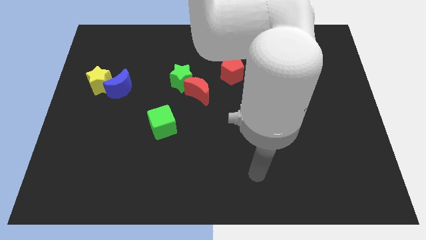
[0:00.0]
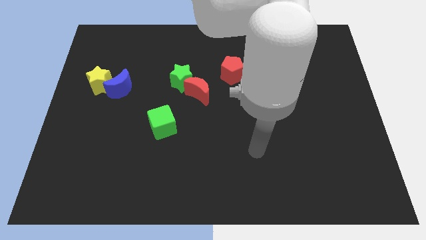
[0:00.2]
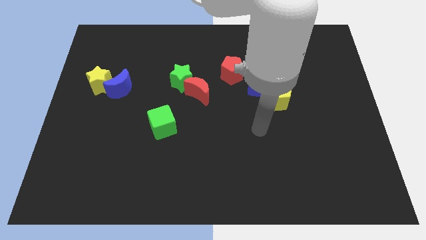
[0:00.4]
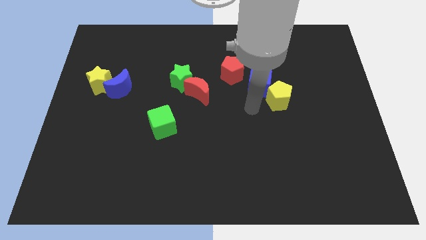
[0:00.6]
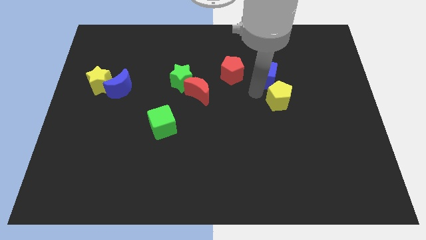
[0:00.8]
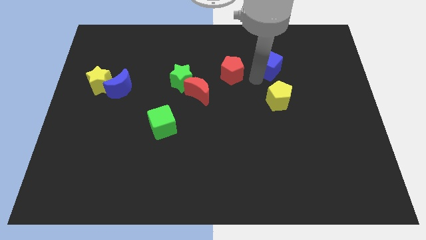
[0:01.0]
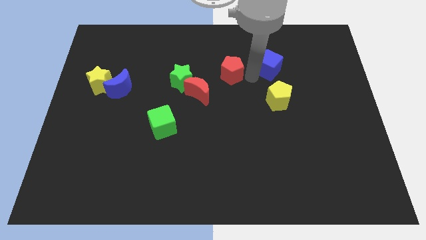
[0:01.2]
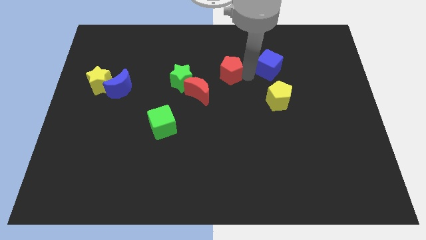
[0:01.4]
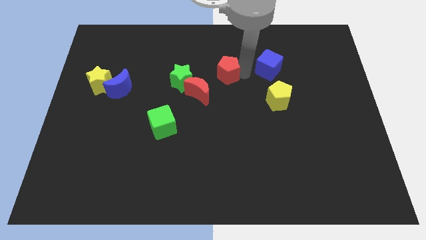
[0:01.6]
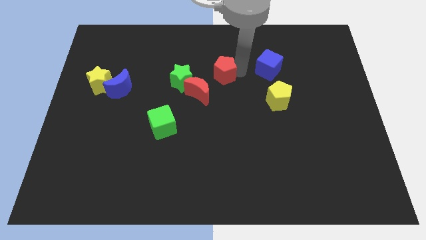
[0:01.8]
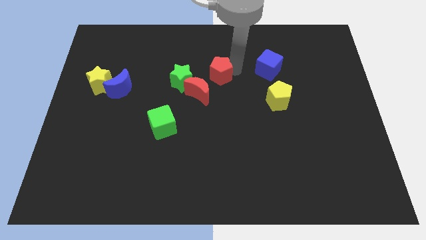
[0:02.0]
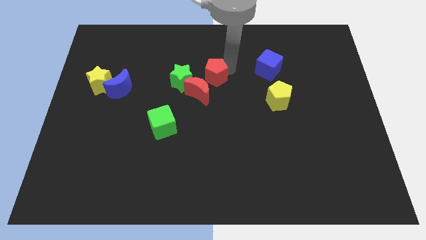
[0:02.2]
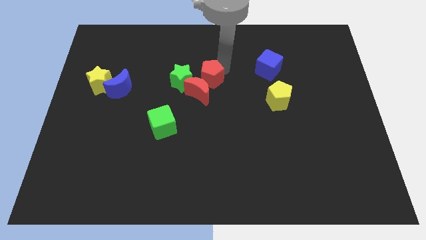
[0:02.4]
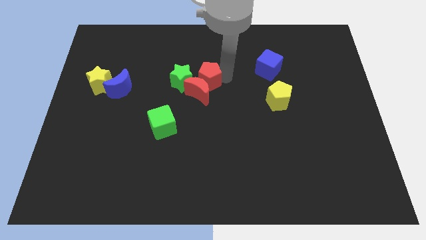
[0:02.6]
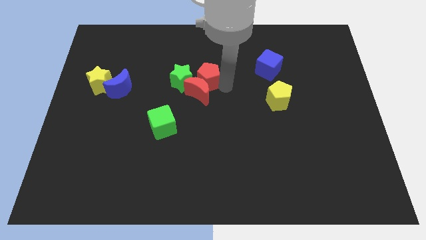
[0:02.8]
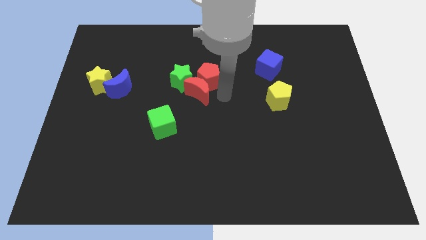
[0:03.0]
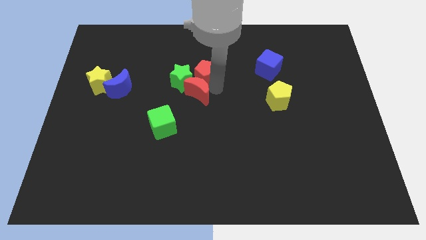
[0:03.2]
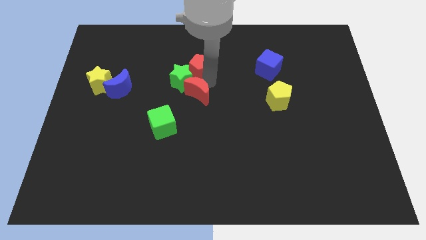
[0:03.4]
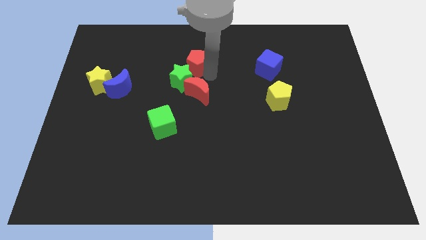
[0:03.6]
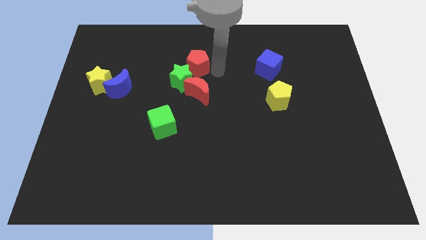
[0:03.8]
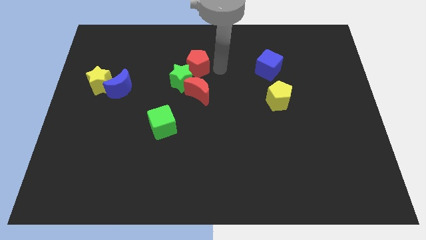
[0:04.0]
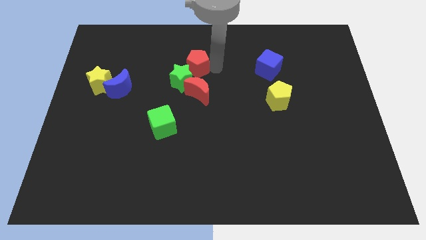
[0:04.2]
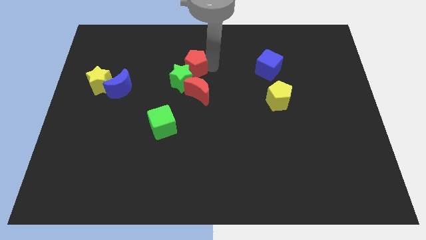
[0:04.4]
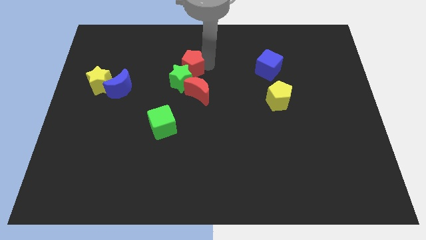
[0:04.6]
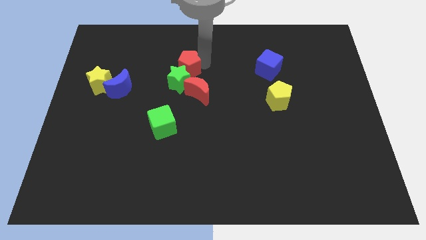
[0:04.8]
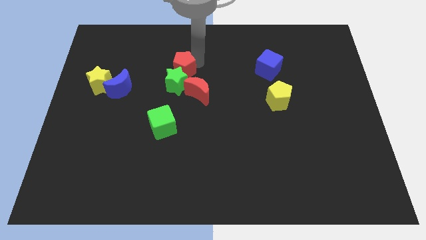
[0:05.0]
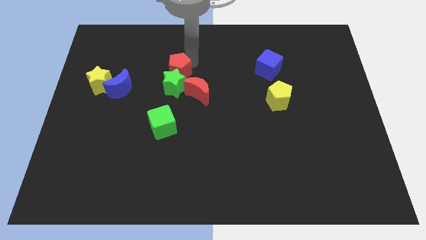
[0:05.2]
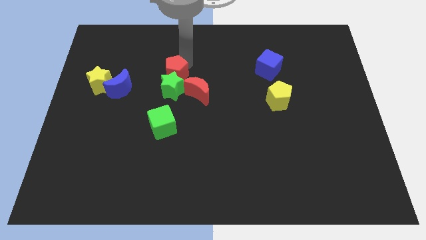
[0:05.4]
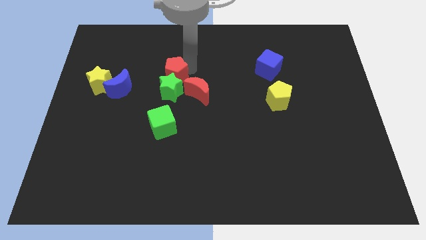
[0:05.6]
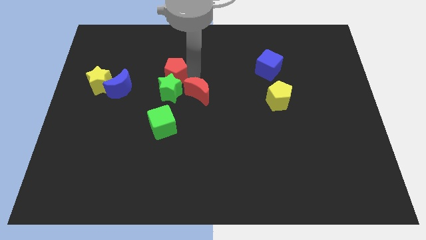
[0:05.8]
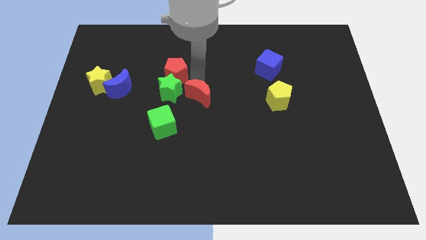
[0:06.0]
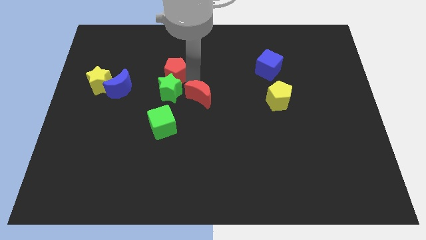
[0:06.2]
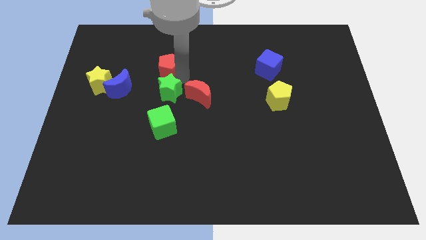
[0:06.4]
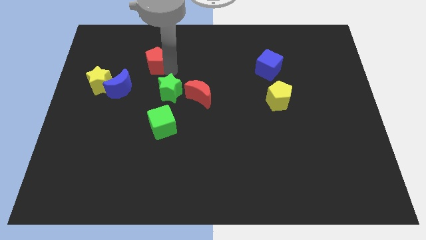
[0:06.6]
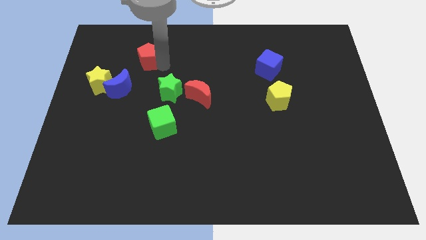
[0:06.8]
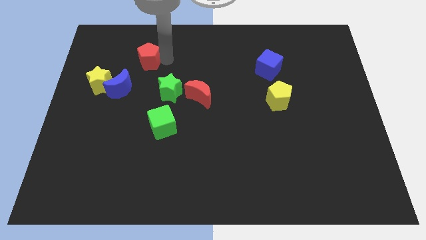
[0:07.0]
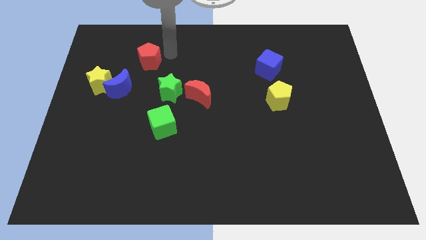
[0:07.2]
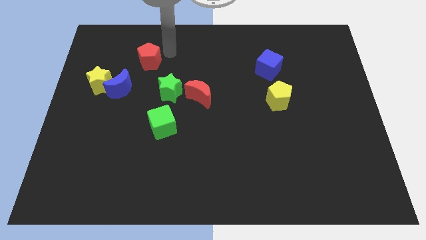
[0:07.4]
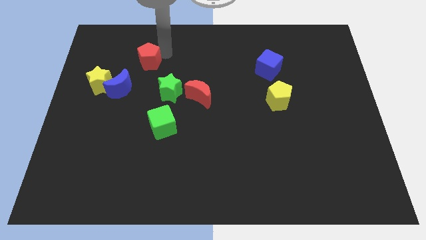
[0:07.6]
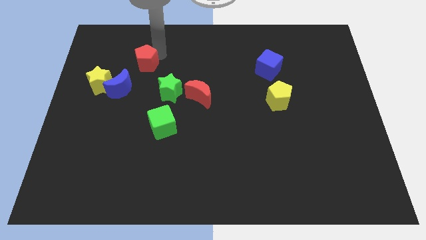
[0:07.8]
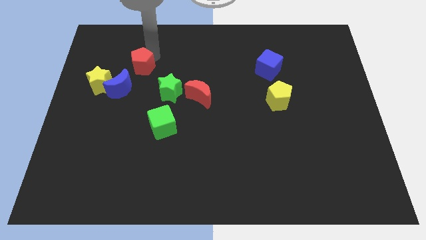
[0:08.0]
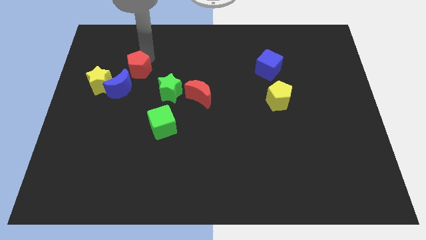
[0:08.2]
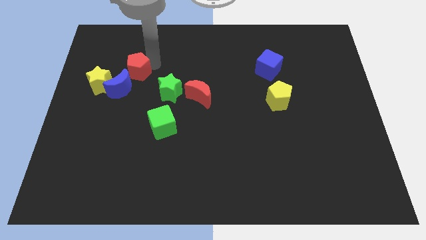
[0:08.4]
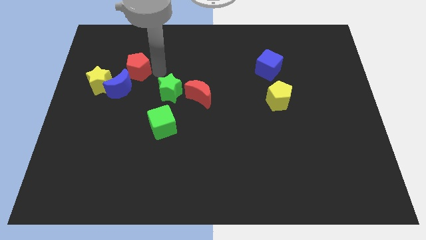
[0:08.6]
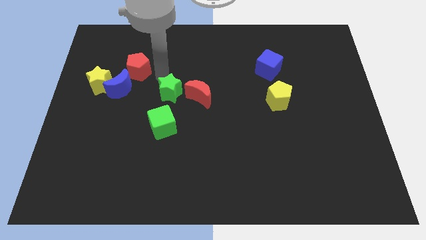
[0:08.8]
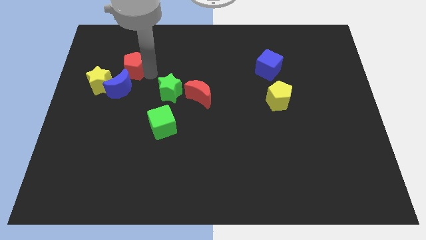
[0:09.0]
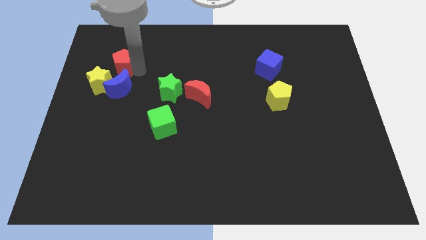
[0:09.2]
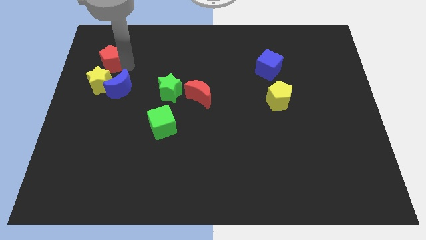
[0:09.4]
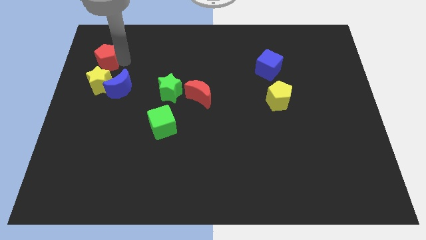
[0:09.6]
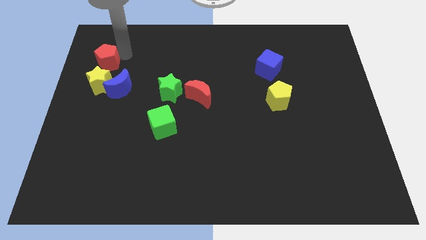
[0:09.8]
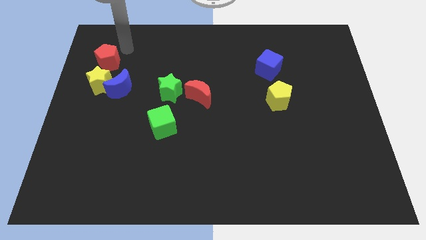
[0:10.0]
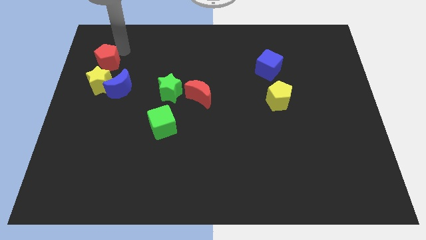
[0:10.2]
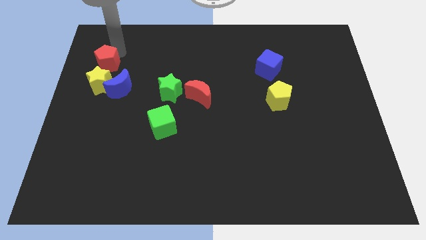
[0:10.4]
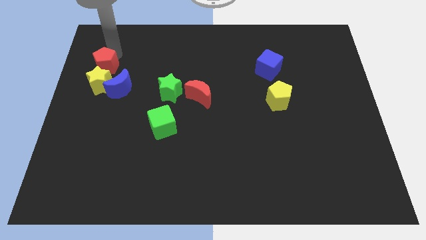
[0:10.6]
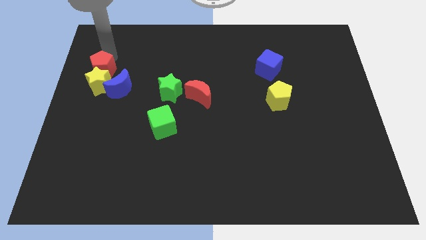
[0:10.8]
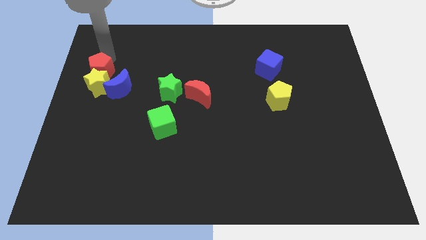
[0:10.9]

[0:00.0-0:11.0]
push the red pentagon to the left side of the board

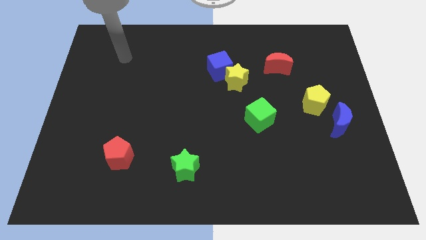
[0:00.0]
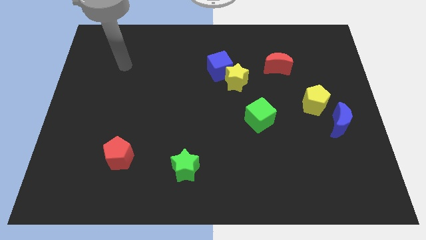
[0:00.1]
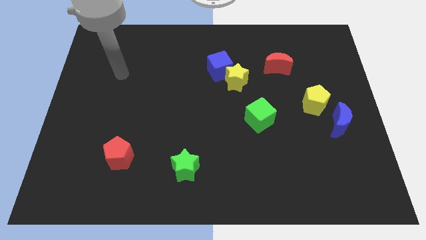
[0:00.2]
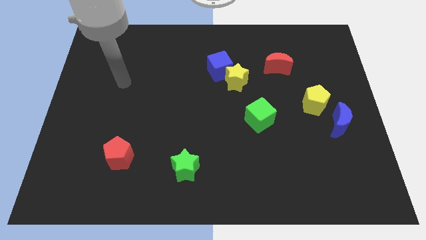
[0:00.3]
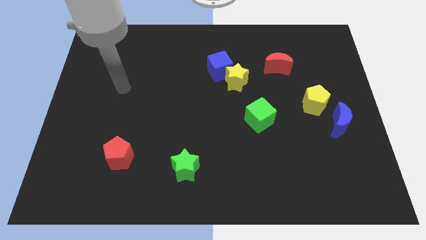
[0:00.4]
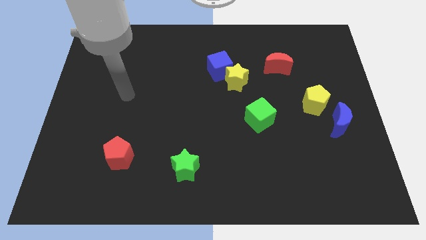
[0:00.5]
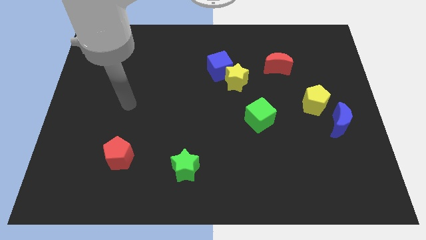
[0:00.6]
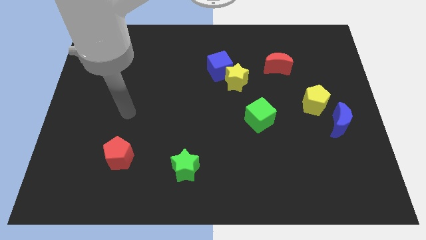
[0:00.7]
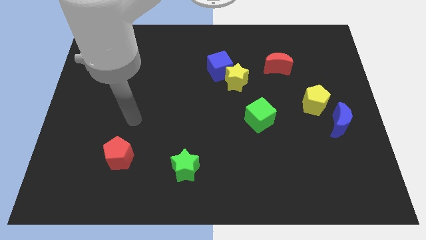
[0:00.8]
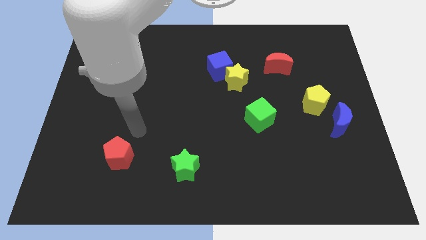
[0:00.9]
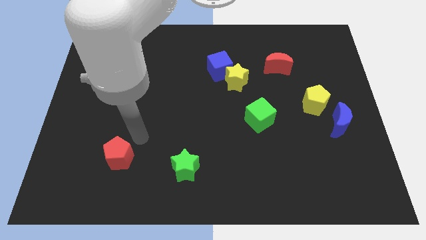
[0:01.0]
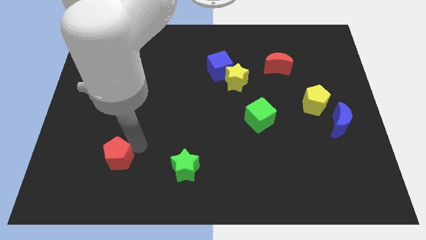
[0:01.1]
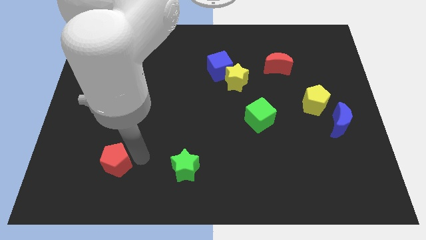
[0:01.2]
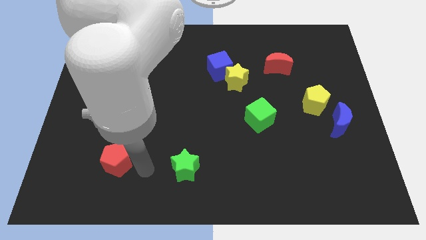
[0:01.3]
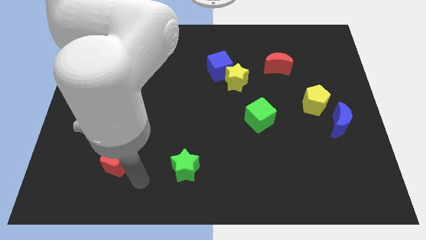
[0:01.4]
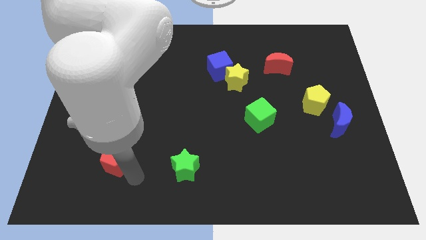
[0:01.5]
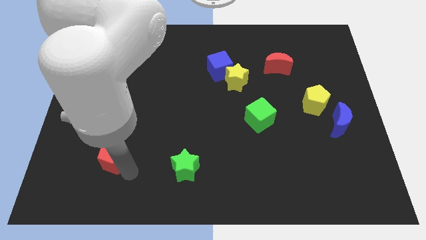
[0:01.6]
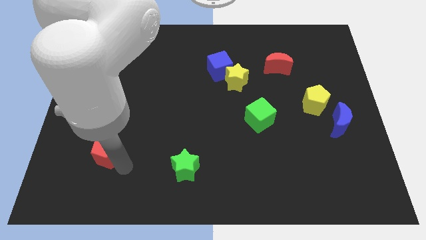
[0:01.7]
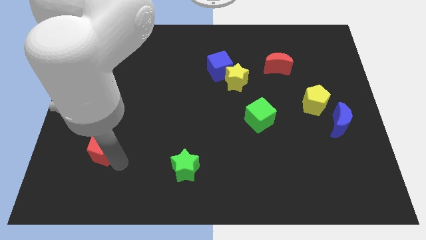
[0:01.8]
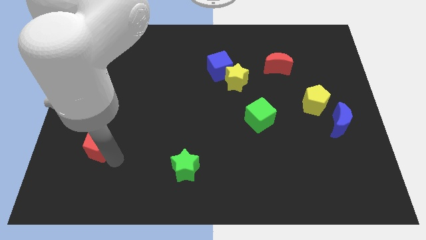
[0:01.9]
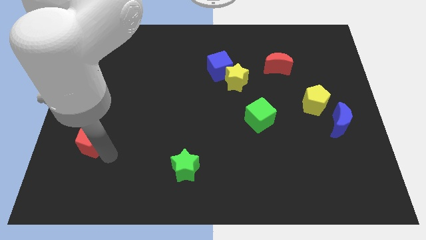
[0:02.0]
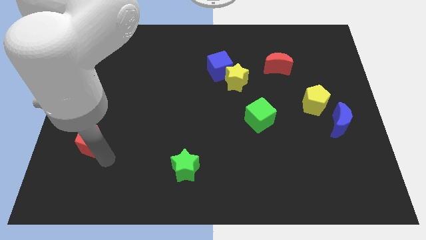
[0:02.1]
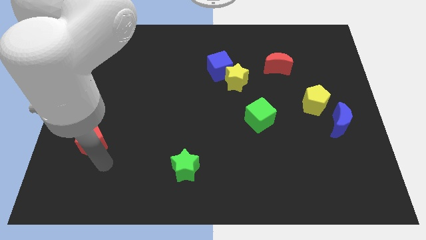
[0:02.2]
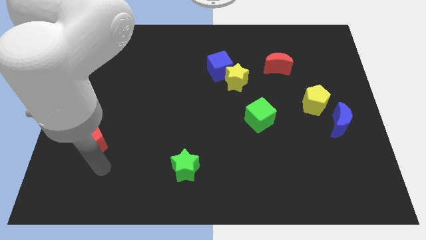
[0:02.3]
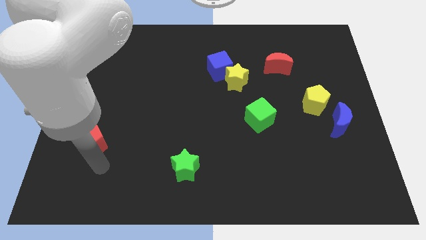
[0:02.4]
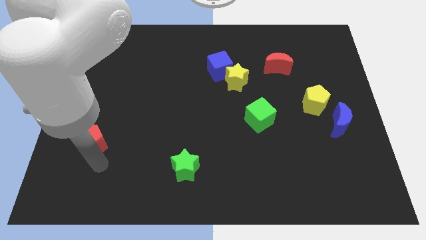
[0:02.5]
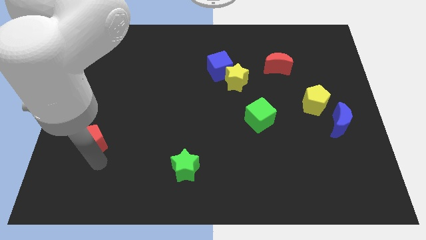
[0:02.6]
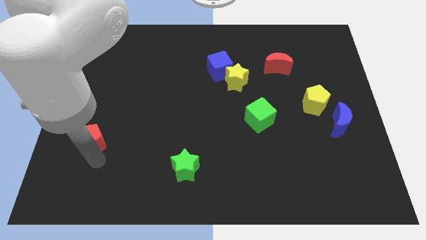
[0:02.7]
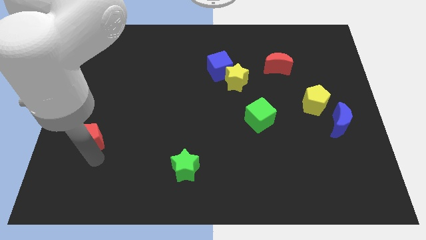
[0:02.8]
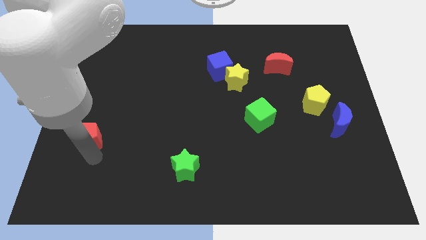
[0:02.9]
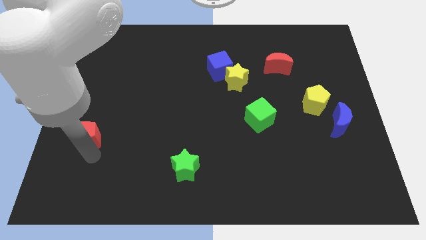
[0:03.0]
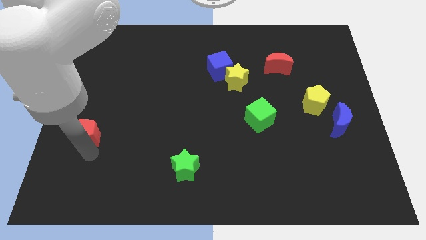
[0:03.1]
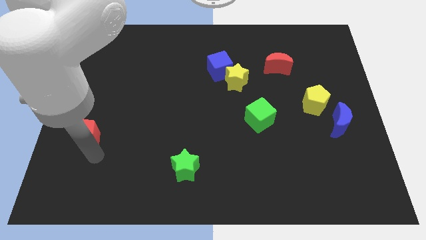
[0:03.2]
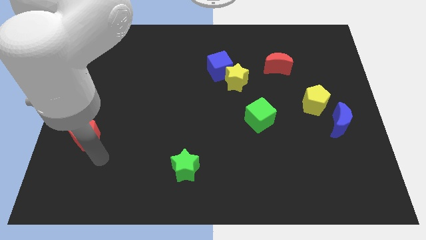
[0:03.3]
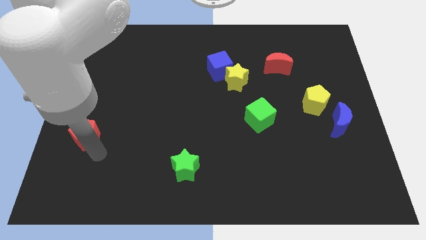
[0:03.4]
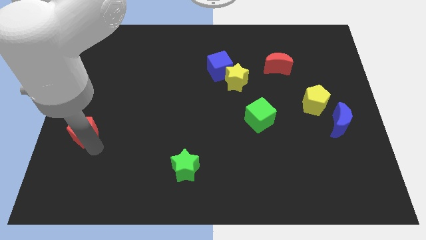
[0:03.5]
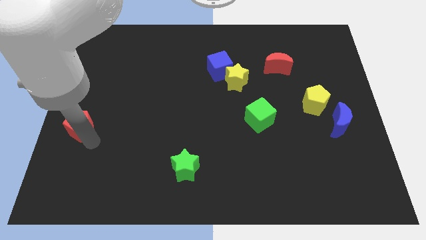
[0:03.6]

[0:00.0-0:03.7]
slide the red pentagon to the center left
